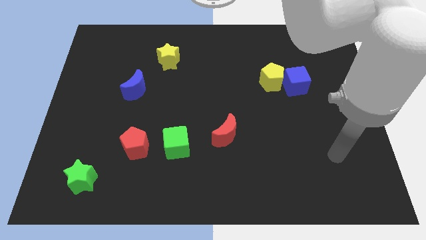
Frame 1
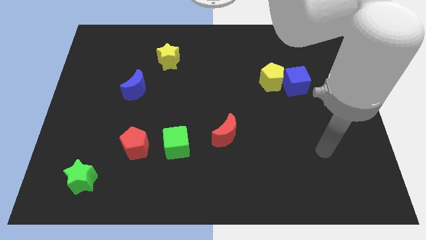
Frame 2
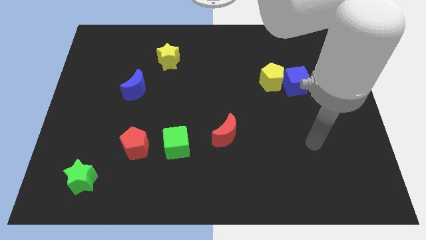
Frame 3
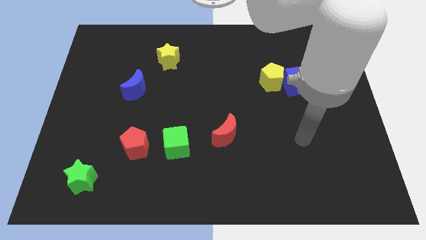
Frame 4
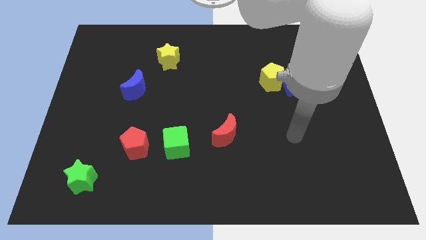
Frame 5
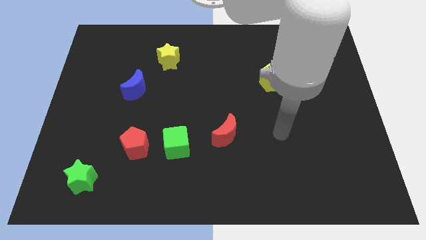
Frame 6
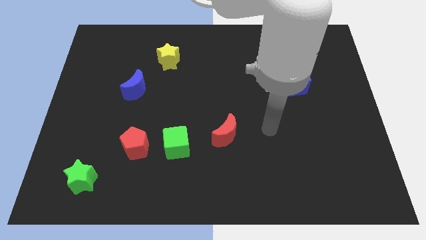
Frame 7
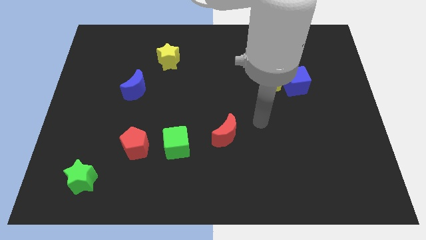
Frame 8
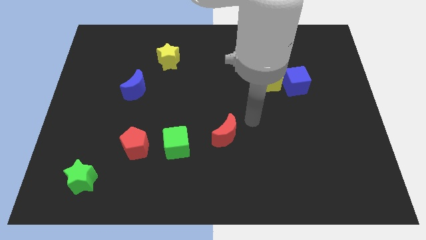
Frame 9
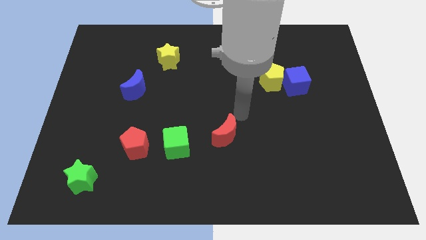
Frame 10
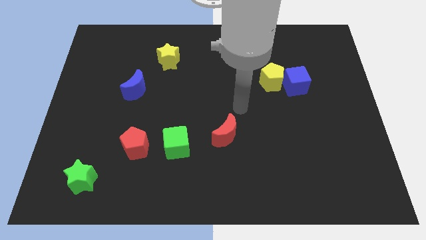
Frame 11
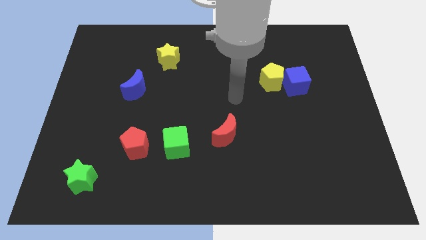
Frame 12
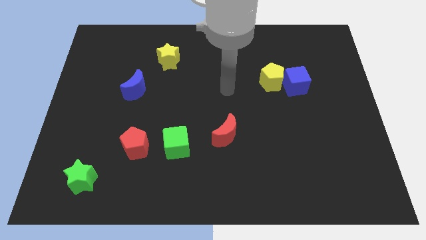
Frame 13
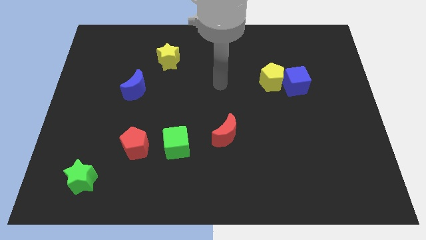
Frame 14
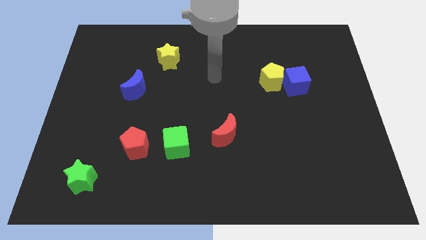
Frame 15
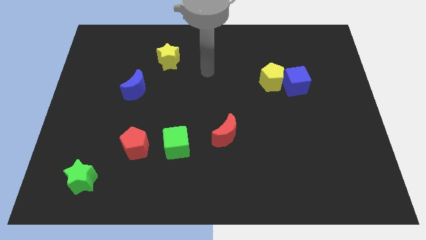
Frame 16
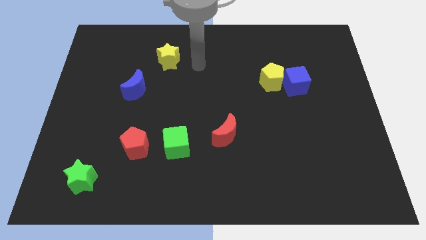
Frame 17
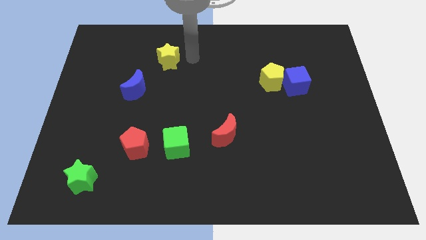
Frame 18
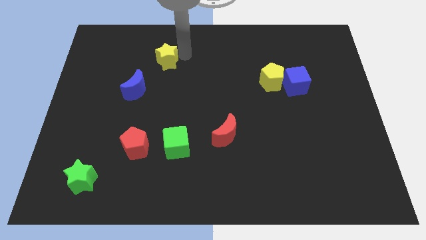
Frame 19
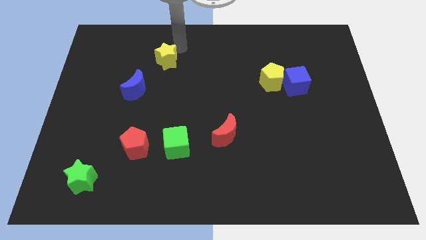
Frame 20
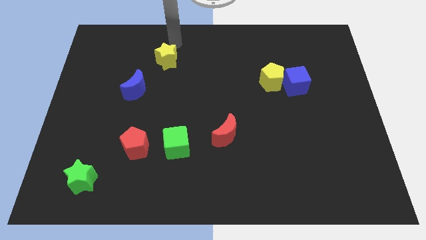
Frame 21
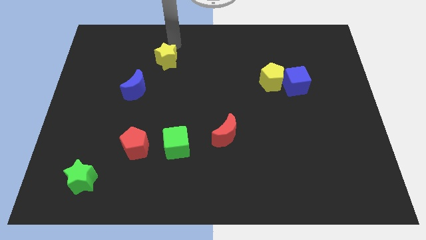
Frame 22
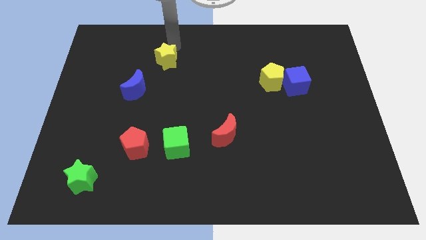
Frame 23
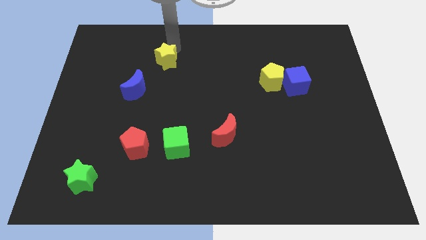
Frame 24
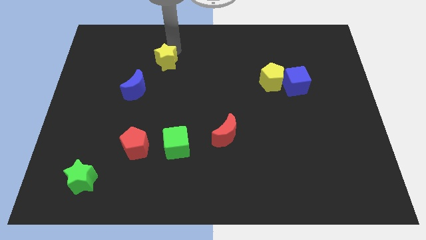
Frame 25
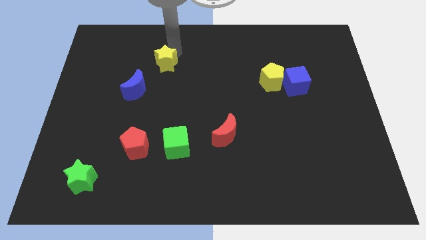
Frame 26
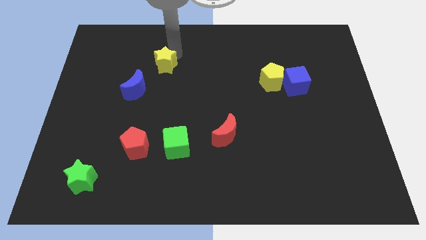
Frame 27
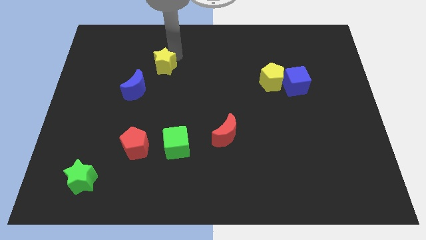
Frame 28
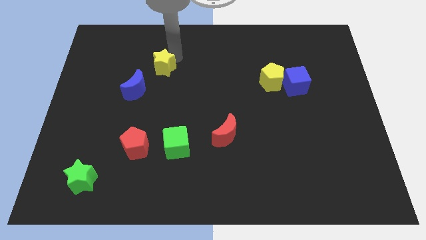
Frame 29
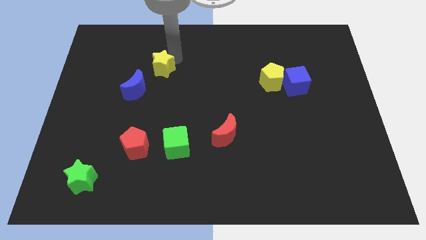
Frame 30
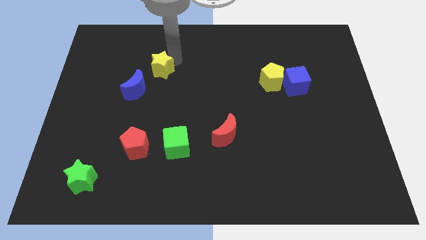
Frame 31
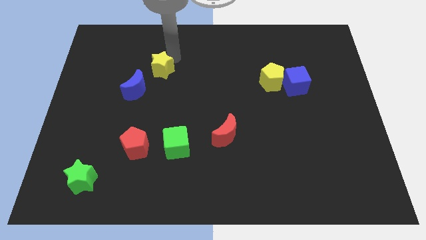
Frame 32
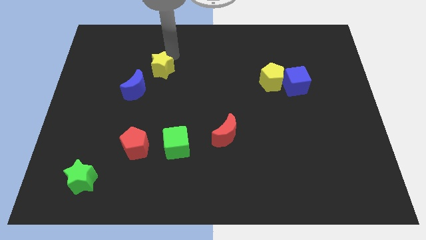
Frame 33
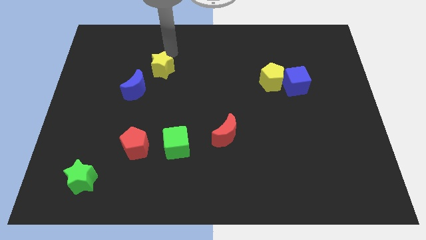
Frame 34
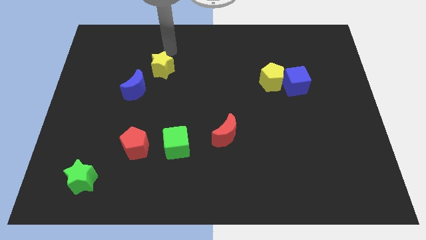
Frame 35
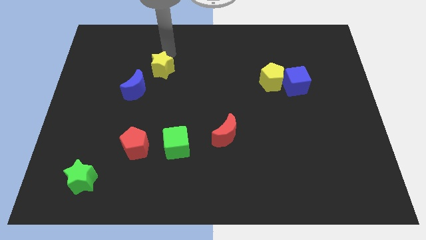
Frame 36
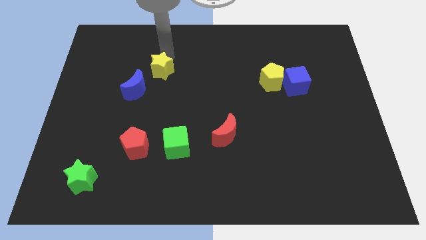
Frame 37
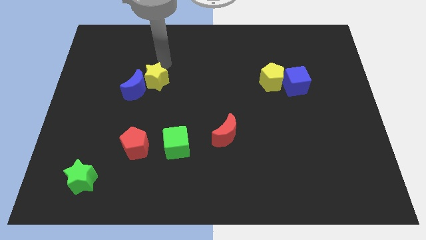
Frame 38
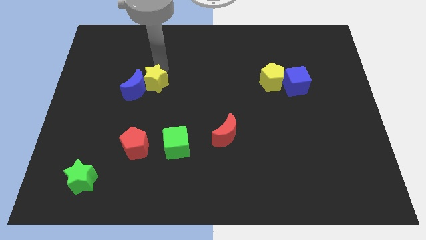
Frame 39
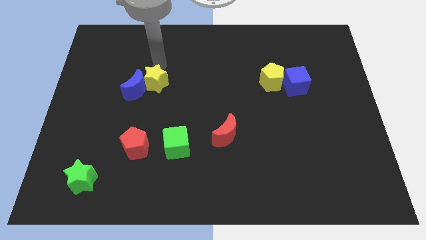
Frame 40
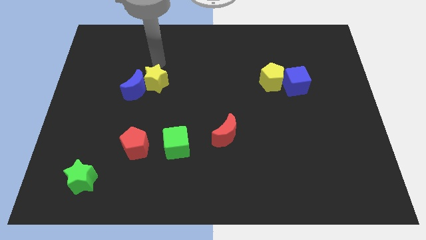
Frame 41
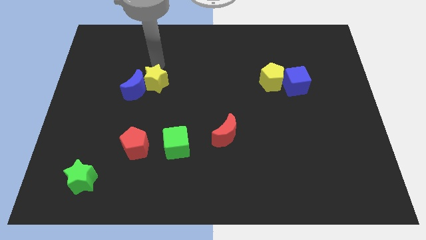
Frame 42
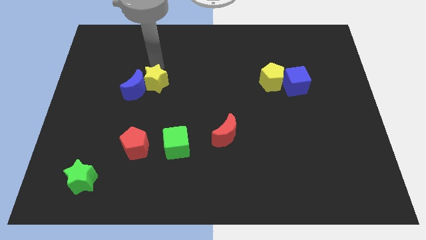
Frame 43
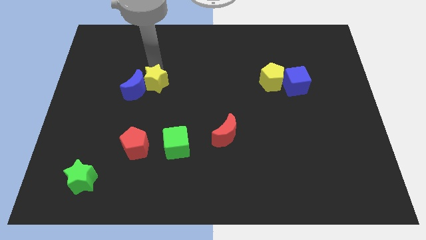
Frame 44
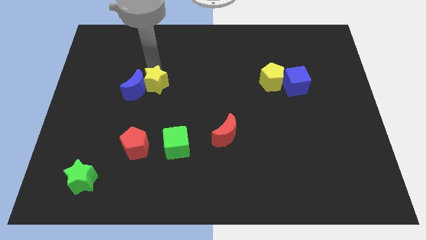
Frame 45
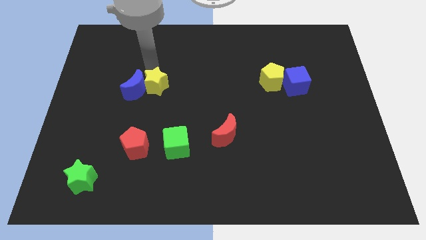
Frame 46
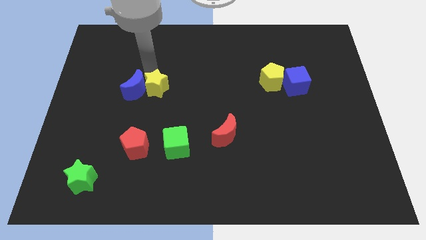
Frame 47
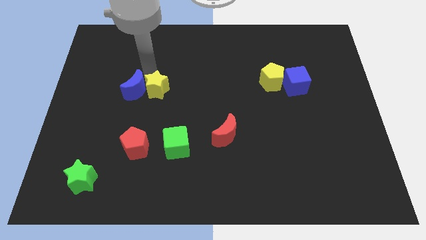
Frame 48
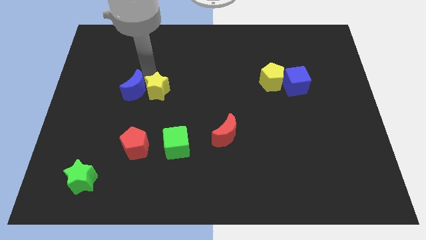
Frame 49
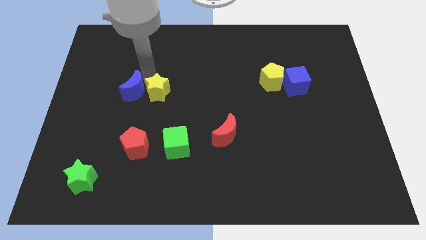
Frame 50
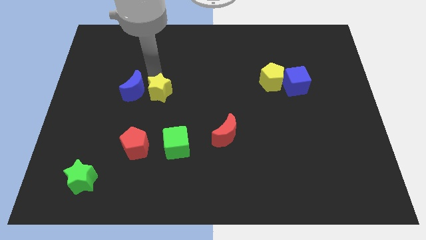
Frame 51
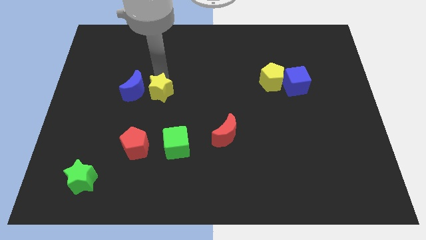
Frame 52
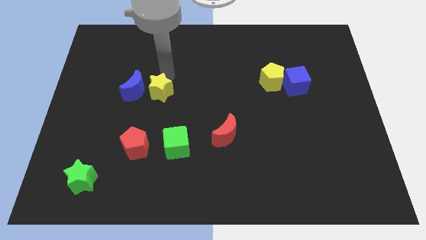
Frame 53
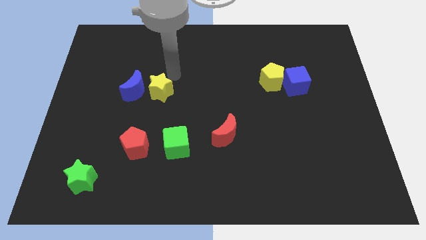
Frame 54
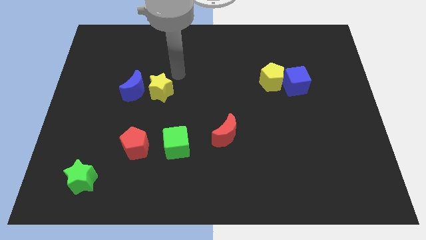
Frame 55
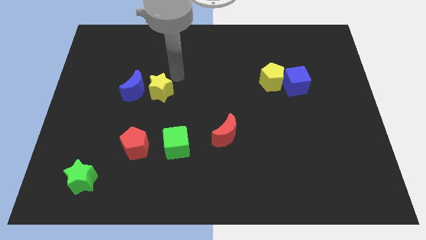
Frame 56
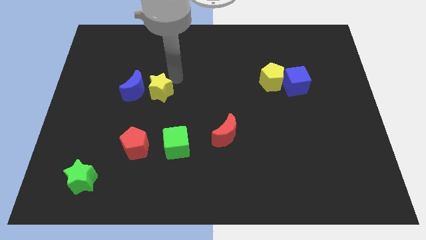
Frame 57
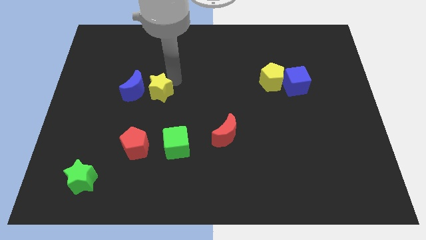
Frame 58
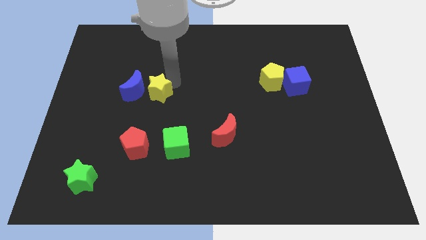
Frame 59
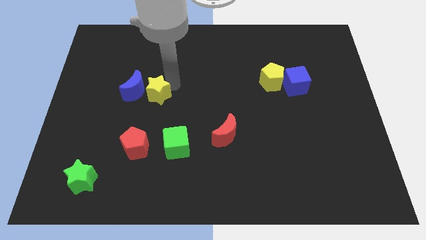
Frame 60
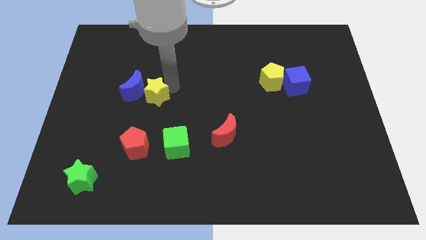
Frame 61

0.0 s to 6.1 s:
put the yellow star above the red pentagon

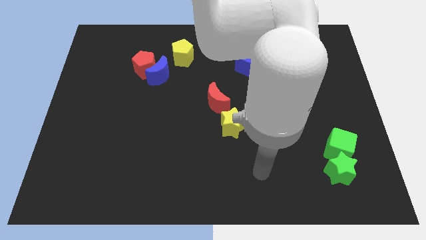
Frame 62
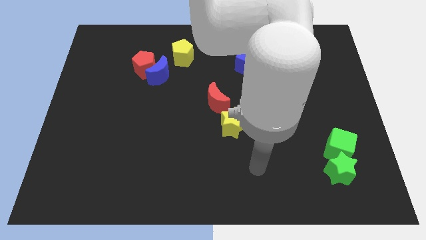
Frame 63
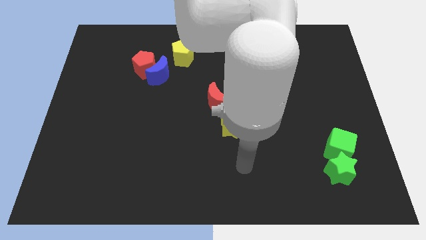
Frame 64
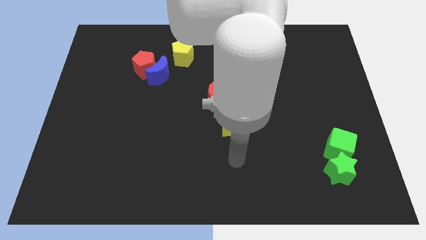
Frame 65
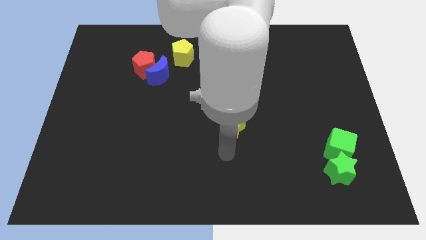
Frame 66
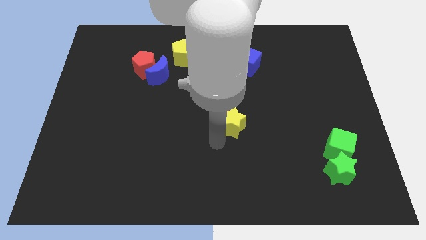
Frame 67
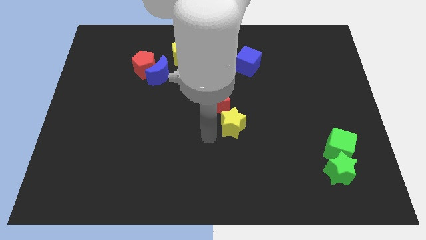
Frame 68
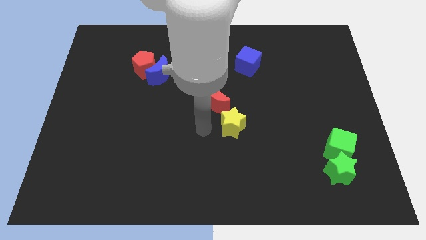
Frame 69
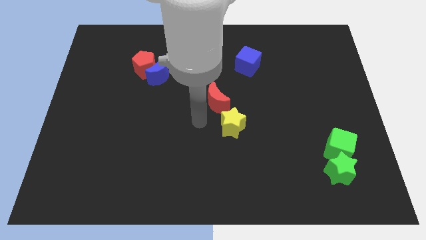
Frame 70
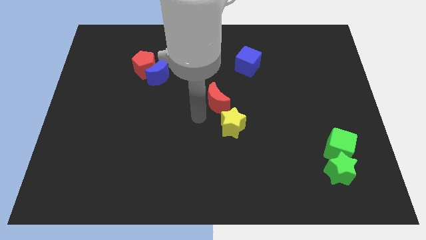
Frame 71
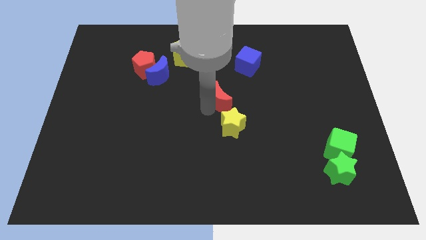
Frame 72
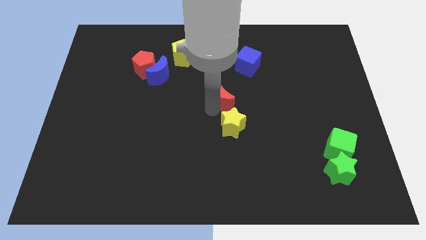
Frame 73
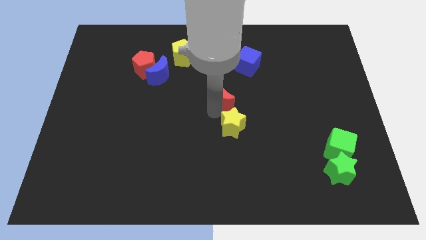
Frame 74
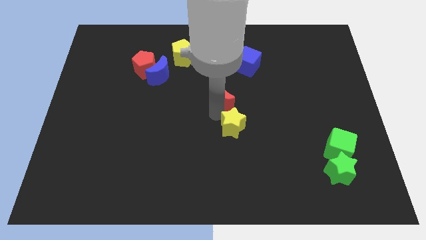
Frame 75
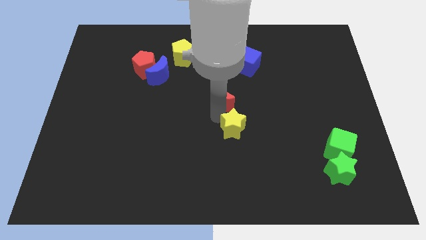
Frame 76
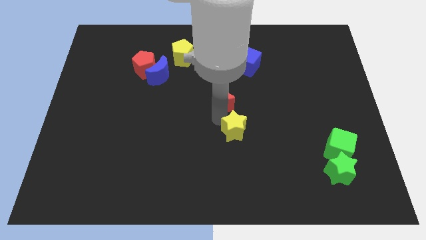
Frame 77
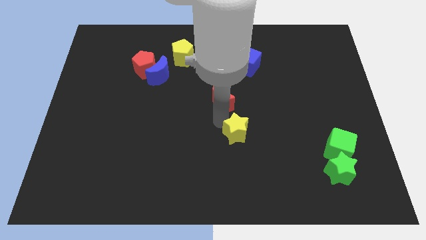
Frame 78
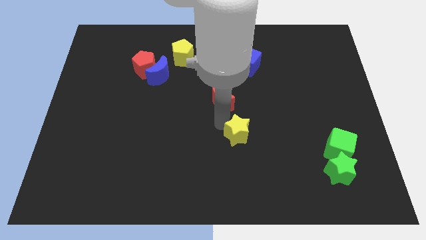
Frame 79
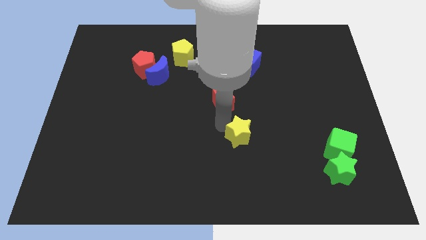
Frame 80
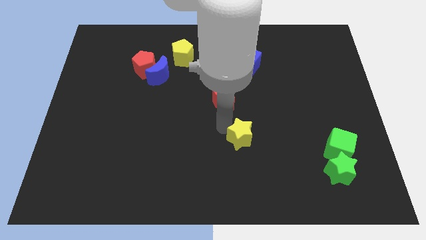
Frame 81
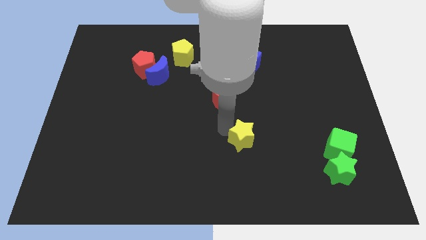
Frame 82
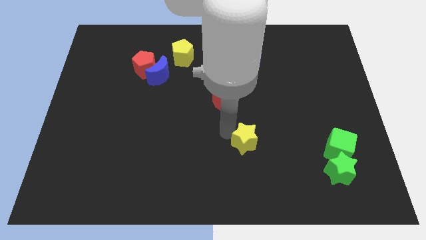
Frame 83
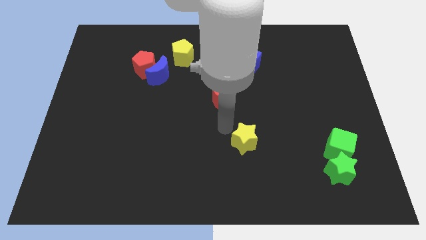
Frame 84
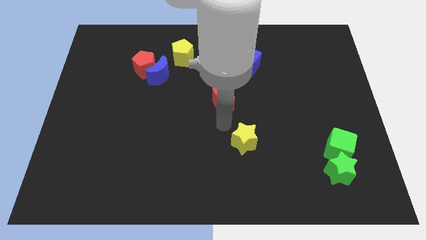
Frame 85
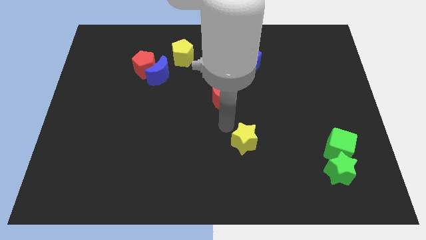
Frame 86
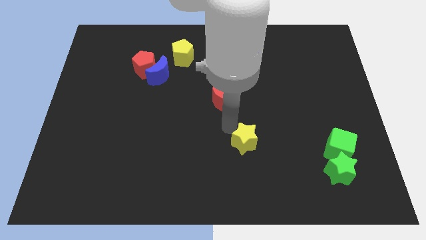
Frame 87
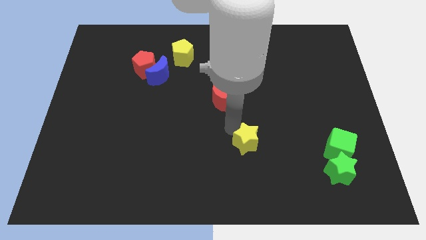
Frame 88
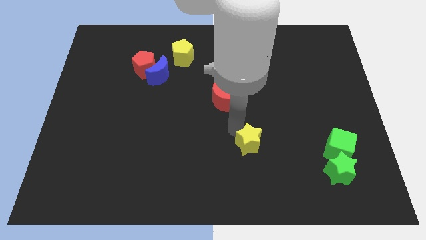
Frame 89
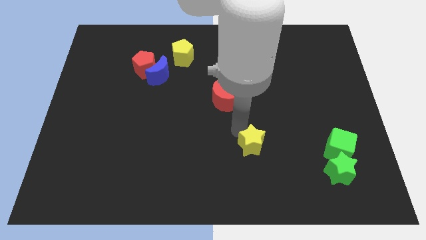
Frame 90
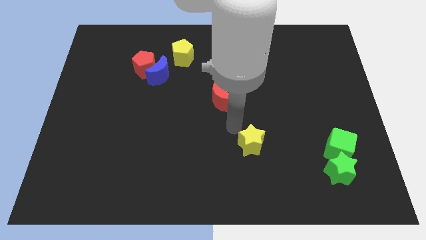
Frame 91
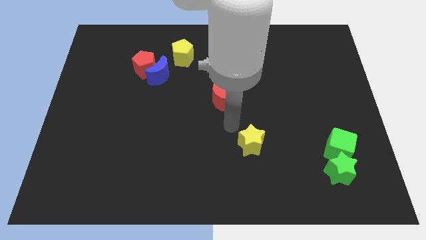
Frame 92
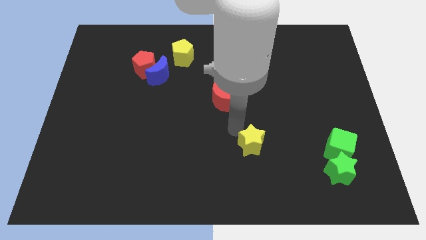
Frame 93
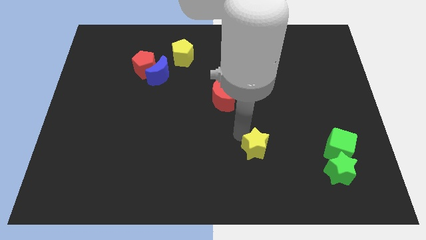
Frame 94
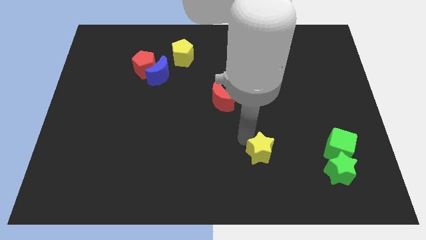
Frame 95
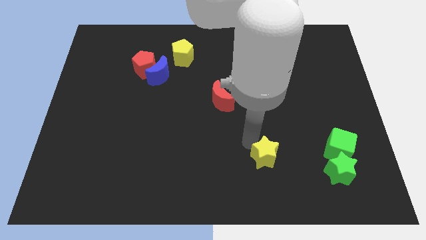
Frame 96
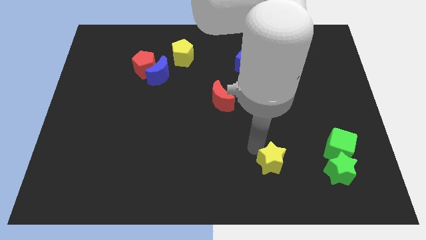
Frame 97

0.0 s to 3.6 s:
move the yellow star to the left side of the green star
